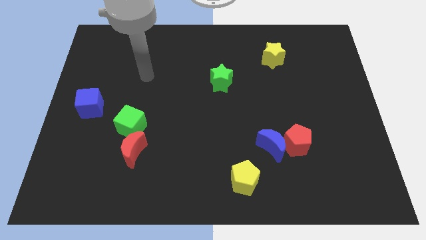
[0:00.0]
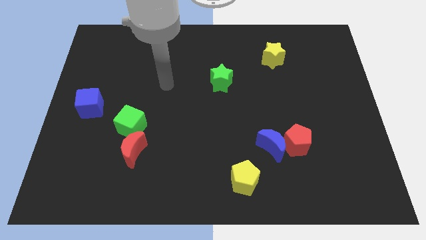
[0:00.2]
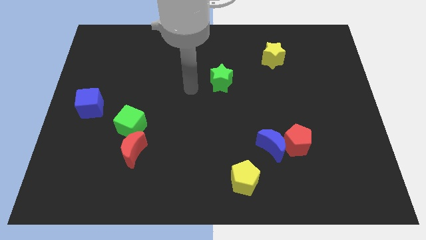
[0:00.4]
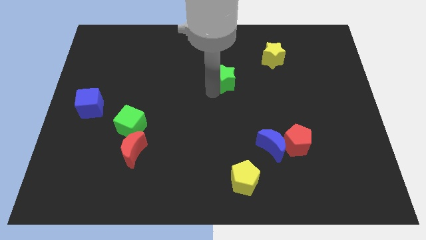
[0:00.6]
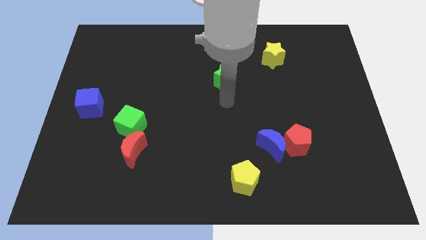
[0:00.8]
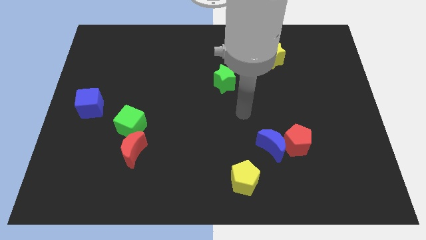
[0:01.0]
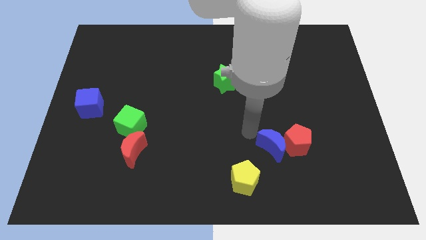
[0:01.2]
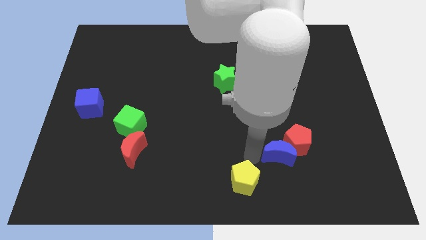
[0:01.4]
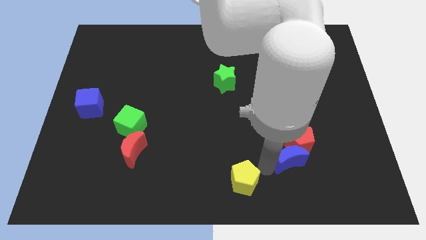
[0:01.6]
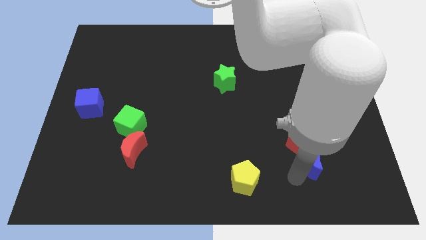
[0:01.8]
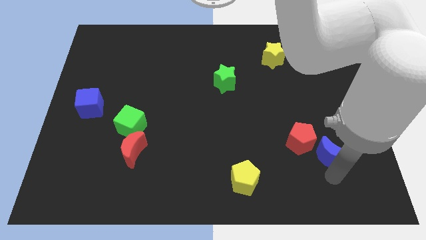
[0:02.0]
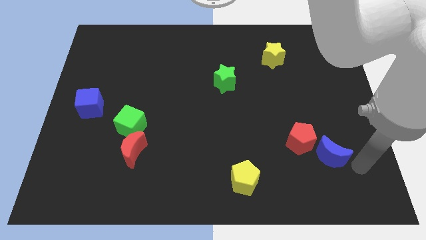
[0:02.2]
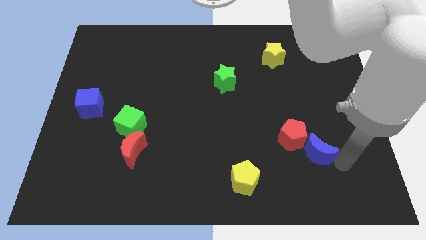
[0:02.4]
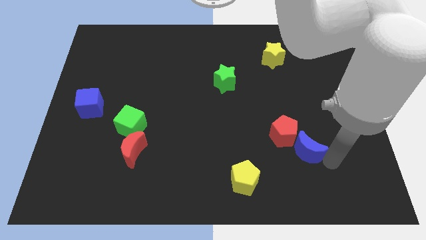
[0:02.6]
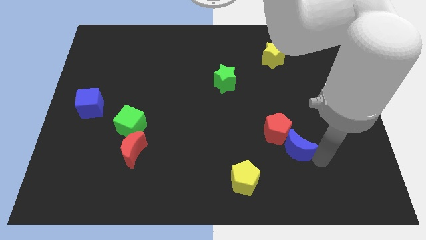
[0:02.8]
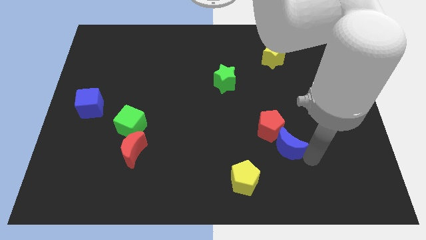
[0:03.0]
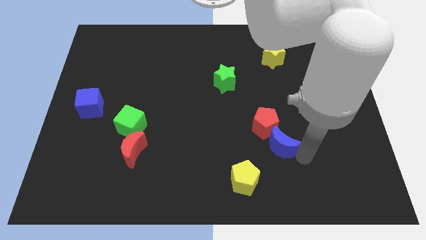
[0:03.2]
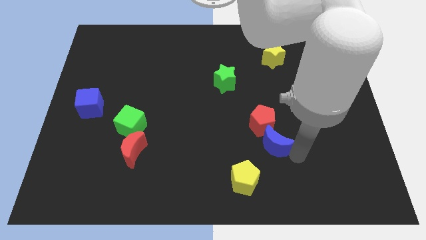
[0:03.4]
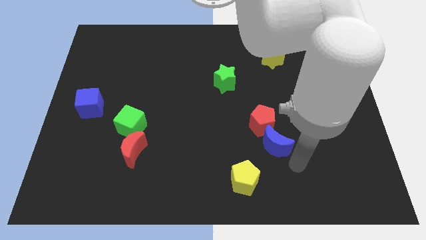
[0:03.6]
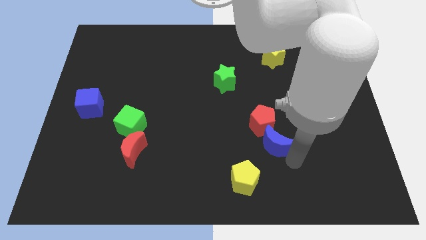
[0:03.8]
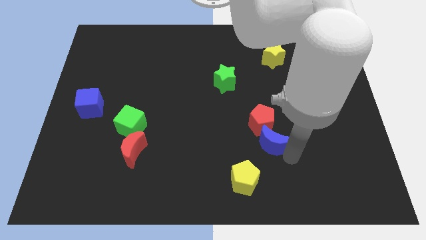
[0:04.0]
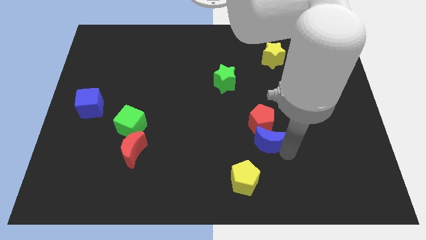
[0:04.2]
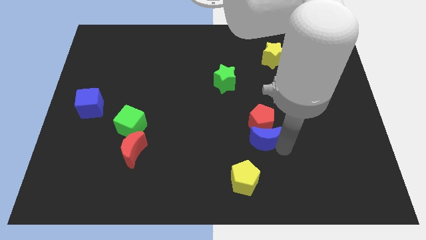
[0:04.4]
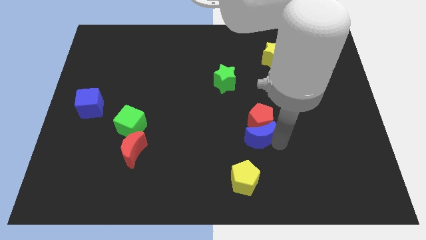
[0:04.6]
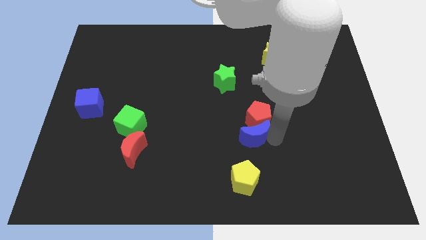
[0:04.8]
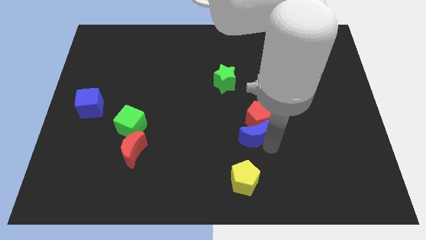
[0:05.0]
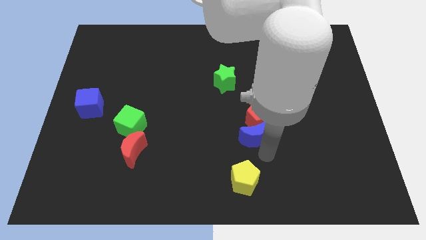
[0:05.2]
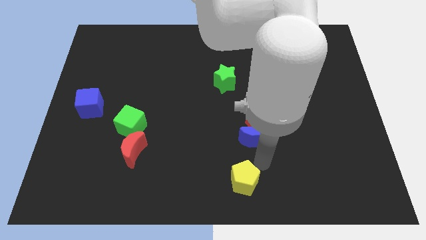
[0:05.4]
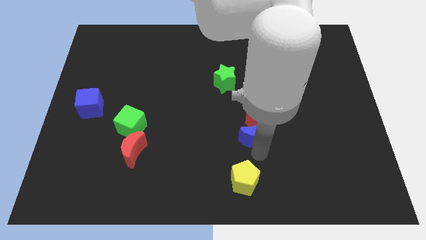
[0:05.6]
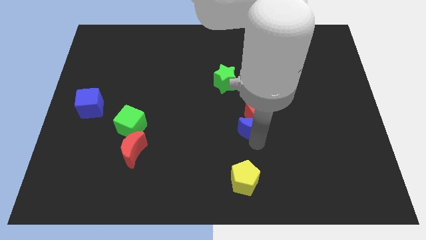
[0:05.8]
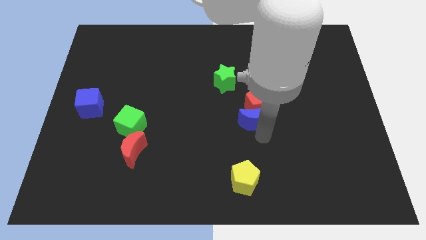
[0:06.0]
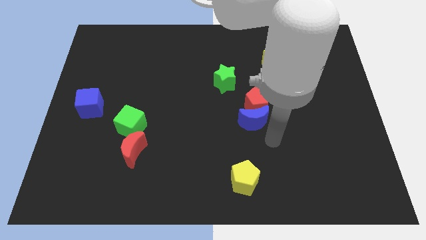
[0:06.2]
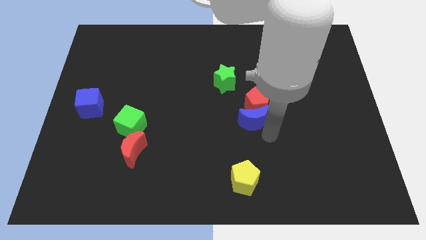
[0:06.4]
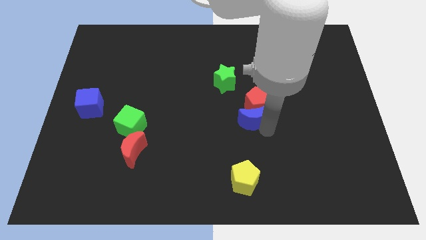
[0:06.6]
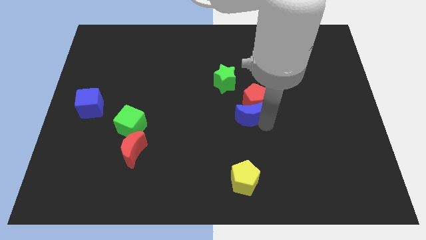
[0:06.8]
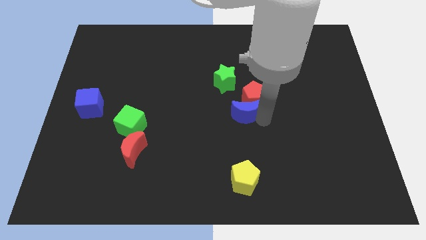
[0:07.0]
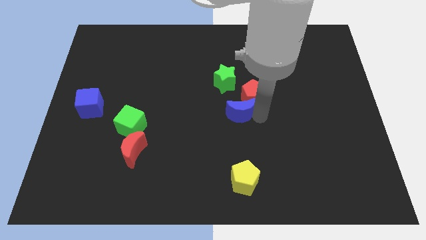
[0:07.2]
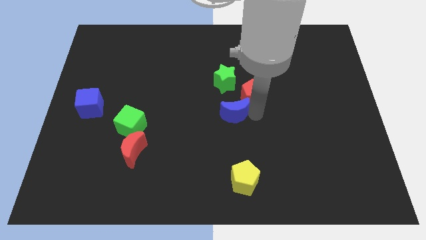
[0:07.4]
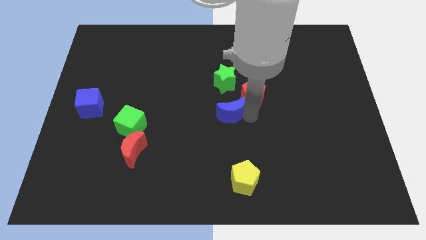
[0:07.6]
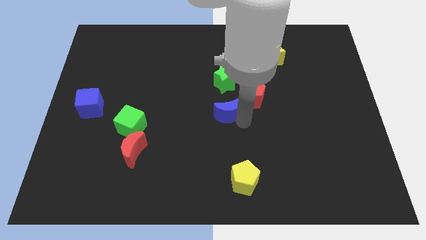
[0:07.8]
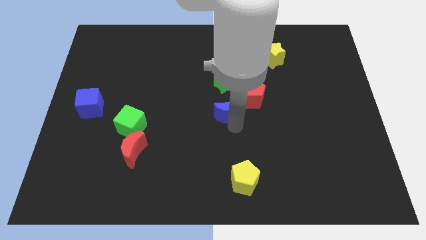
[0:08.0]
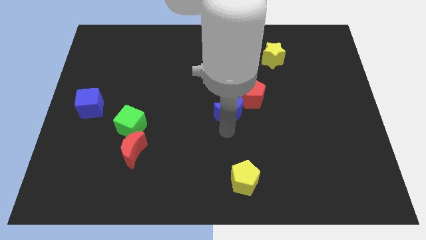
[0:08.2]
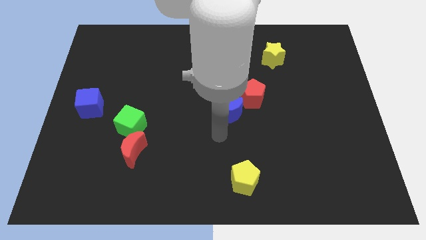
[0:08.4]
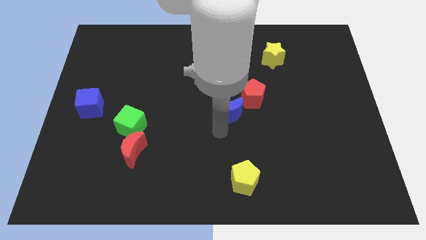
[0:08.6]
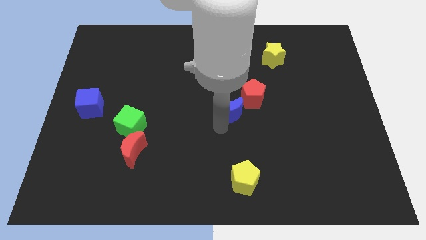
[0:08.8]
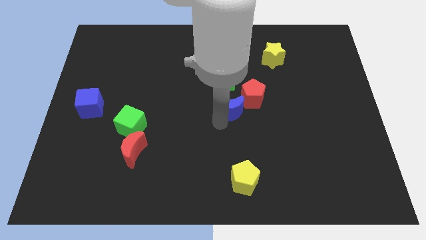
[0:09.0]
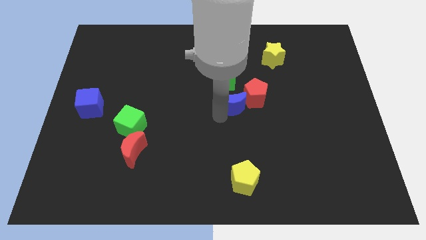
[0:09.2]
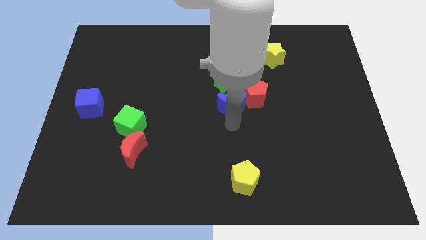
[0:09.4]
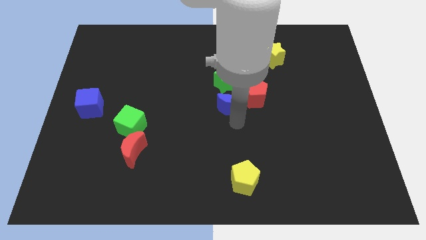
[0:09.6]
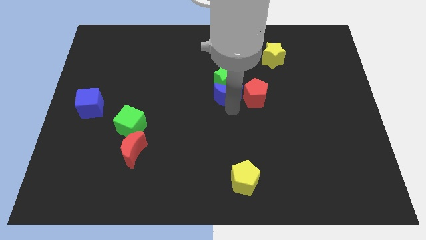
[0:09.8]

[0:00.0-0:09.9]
slide the blue moon close to the green star

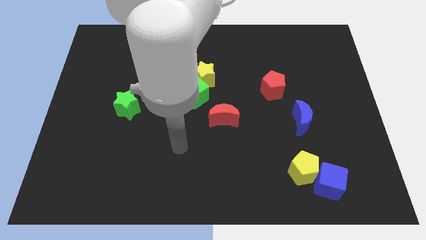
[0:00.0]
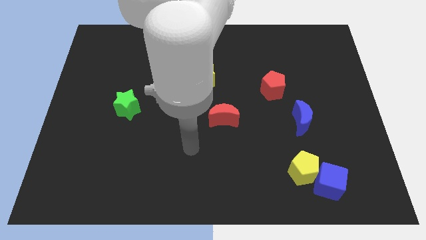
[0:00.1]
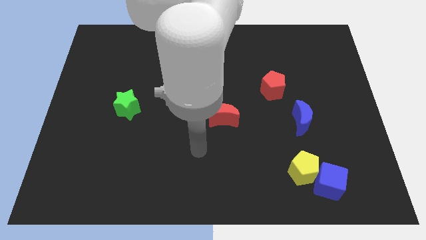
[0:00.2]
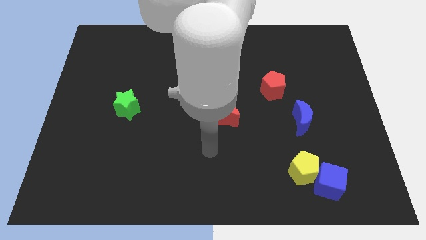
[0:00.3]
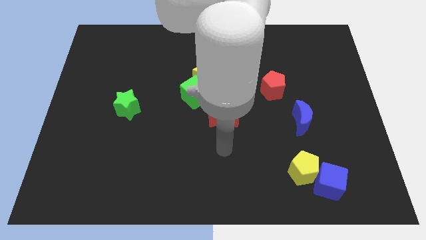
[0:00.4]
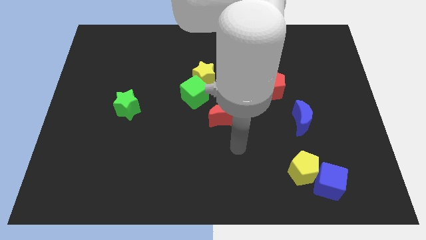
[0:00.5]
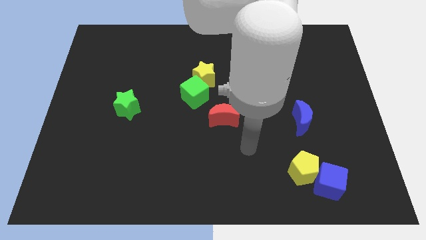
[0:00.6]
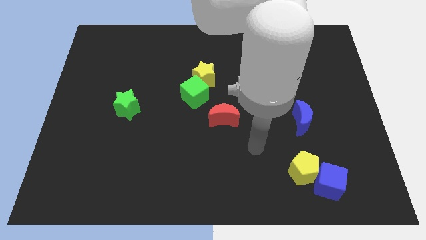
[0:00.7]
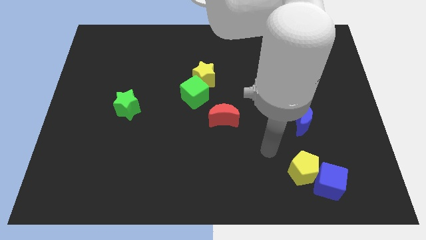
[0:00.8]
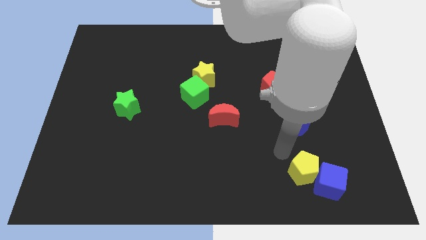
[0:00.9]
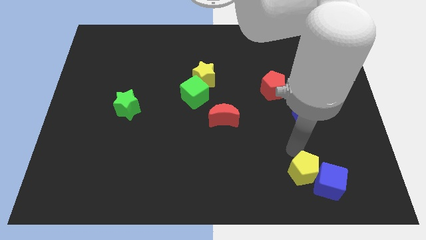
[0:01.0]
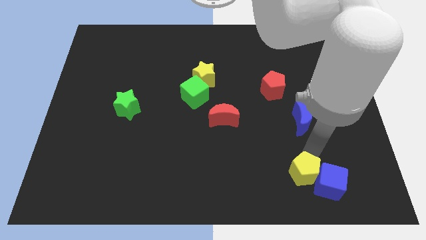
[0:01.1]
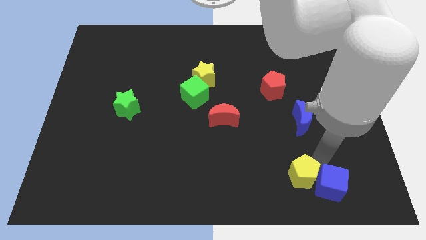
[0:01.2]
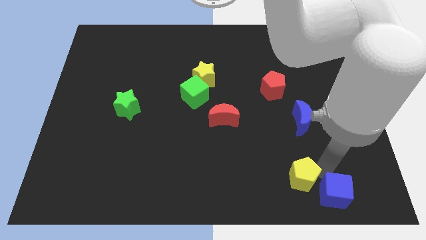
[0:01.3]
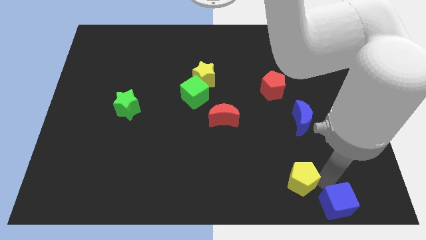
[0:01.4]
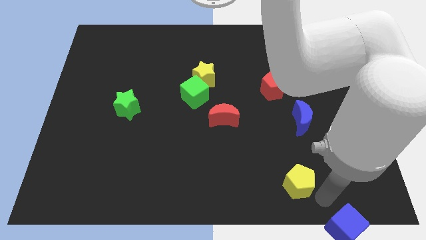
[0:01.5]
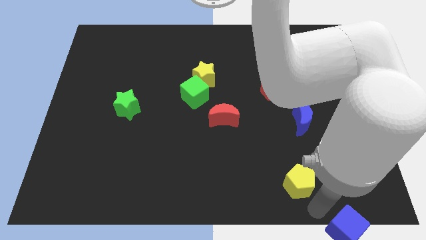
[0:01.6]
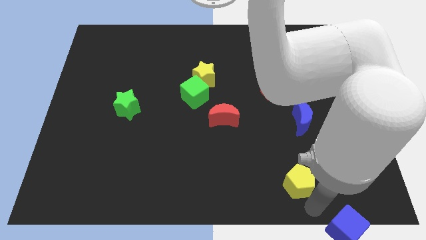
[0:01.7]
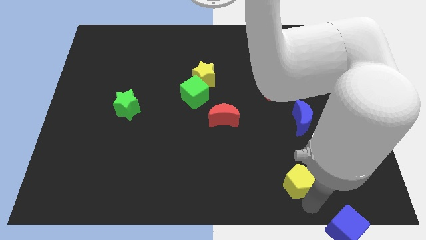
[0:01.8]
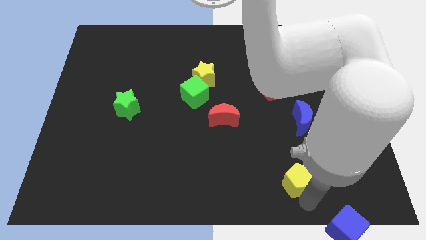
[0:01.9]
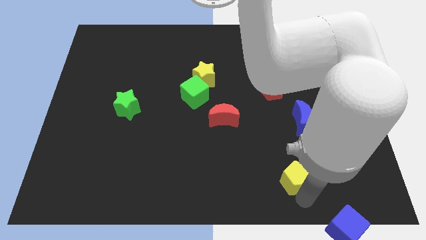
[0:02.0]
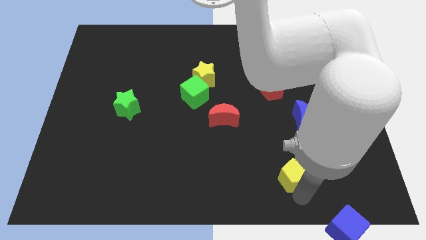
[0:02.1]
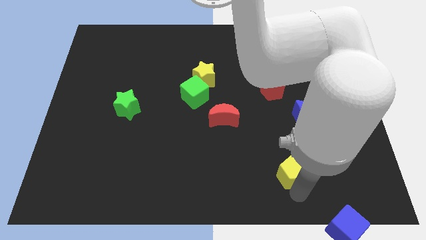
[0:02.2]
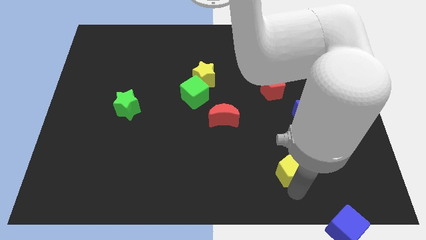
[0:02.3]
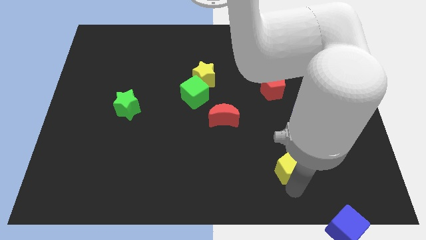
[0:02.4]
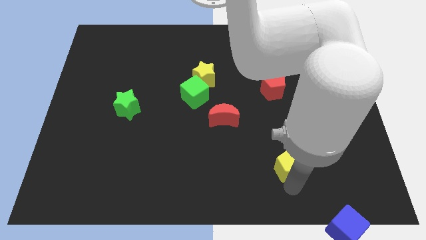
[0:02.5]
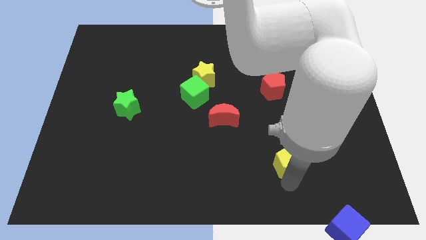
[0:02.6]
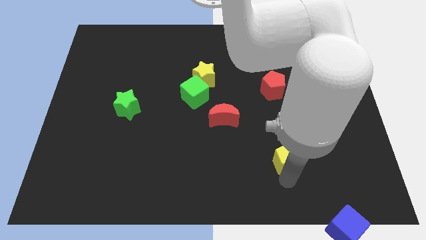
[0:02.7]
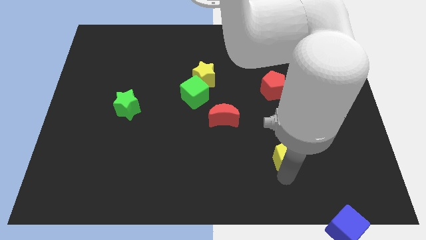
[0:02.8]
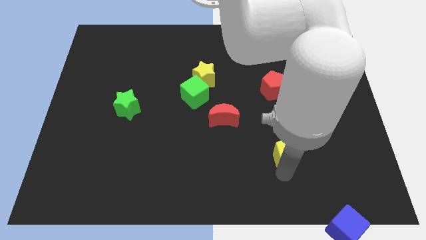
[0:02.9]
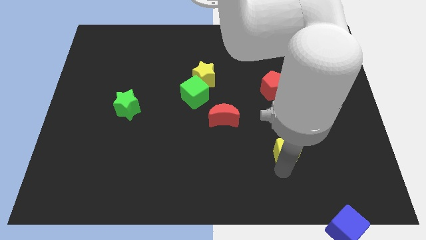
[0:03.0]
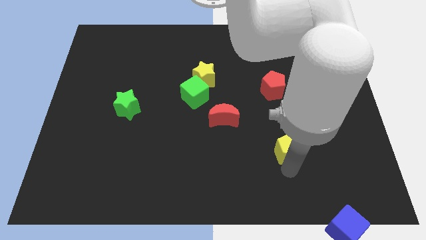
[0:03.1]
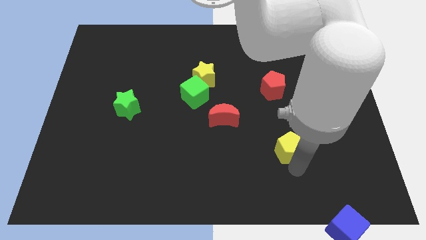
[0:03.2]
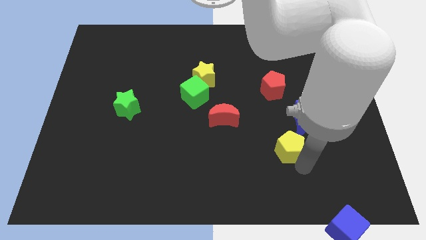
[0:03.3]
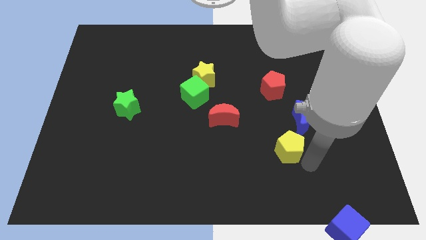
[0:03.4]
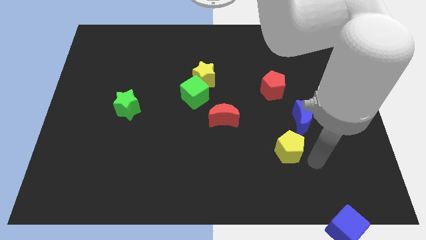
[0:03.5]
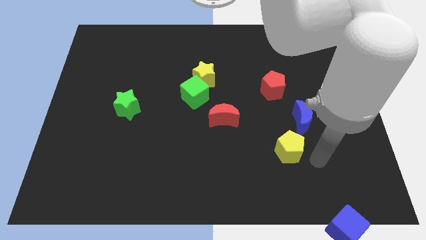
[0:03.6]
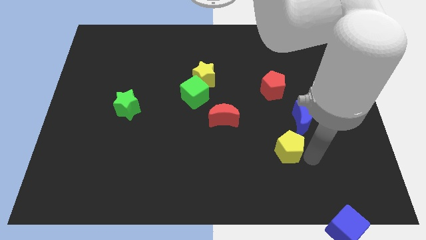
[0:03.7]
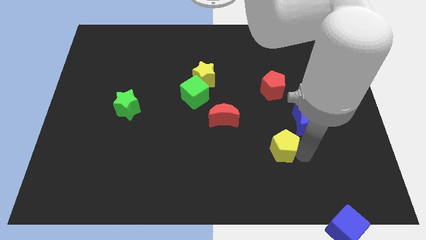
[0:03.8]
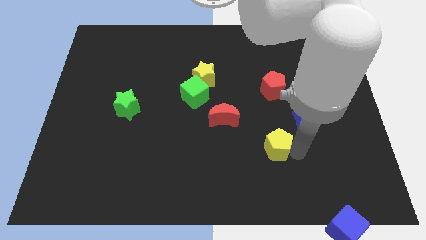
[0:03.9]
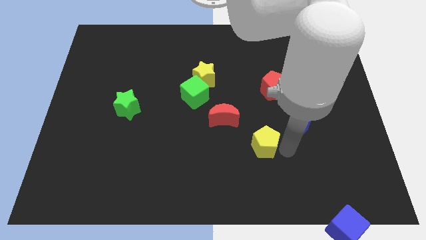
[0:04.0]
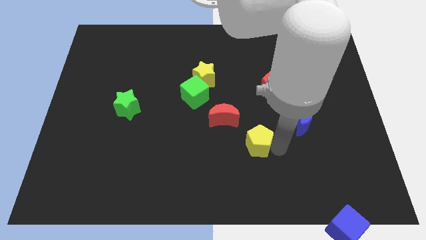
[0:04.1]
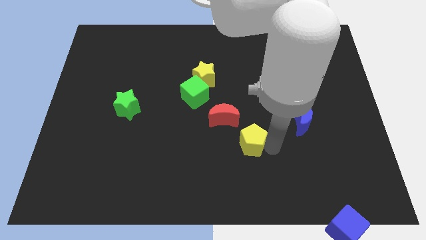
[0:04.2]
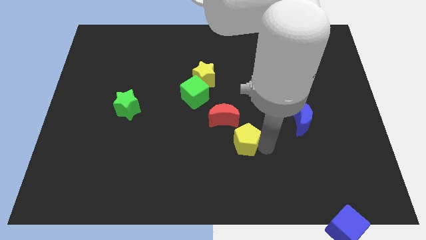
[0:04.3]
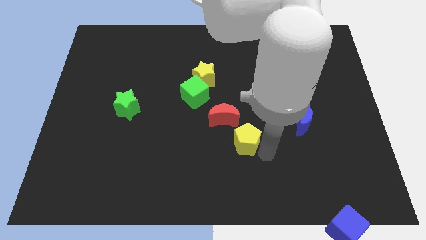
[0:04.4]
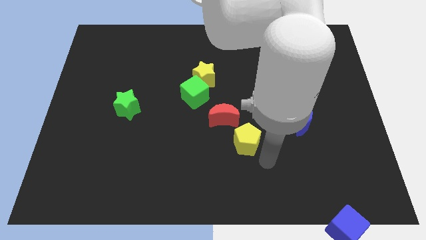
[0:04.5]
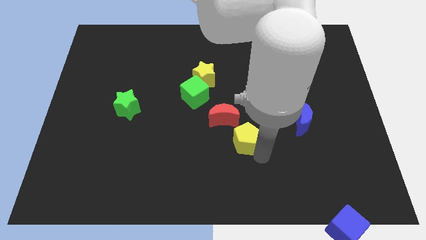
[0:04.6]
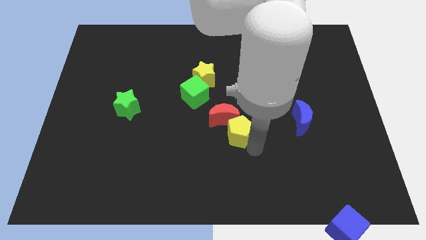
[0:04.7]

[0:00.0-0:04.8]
move the yellow pentagon next to the red moon
